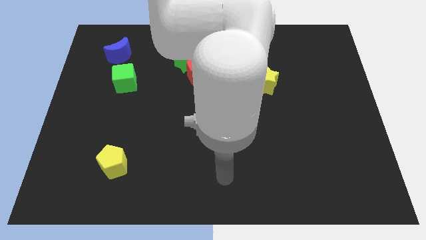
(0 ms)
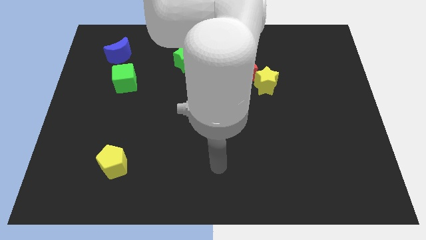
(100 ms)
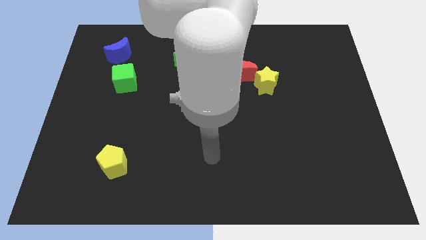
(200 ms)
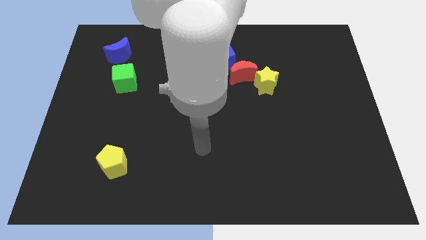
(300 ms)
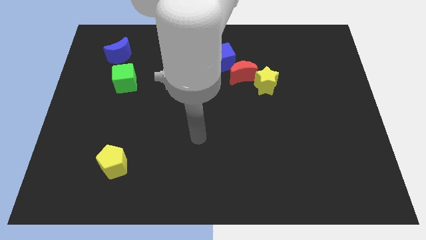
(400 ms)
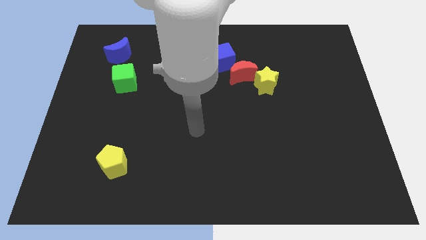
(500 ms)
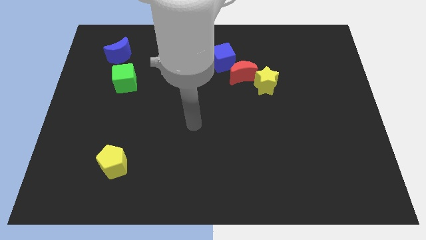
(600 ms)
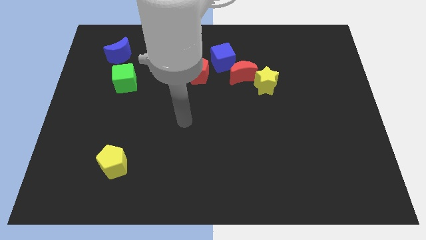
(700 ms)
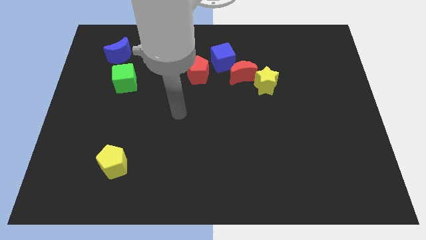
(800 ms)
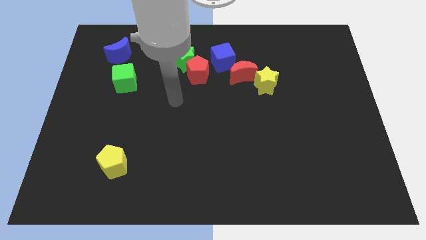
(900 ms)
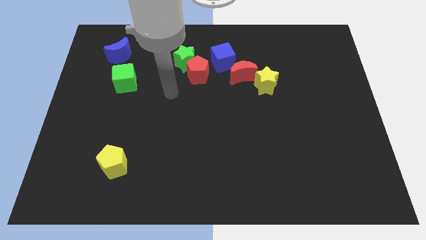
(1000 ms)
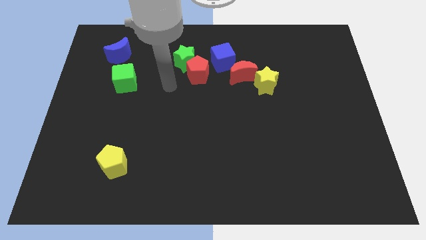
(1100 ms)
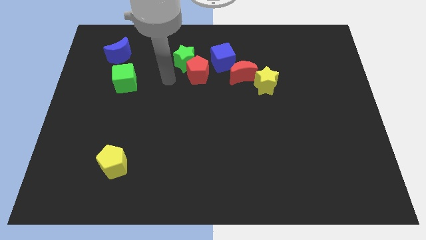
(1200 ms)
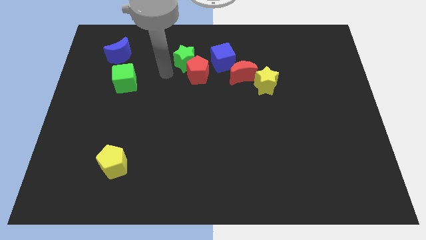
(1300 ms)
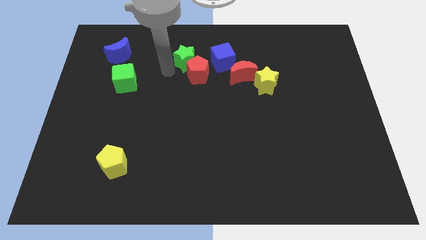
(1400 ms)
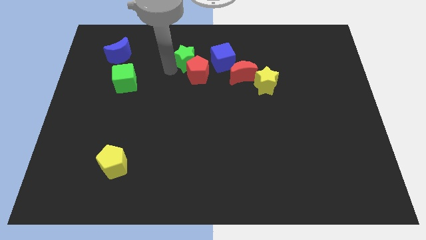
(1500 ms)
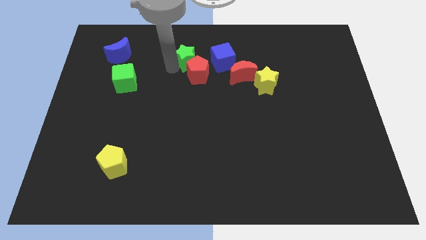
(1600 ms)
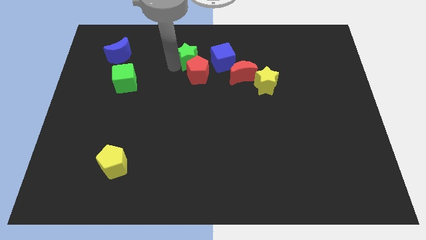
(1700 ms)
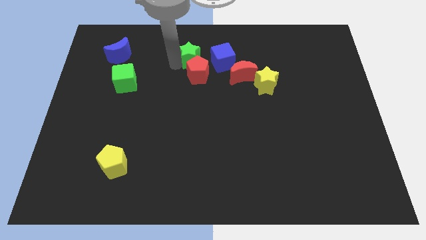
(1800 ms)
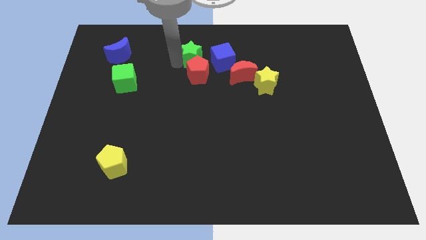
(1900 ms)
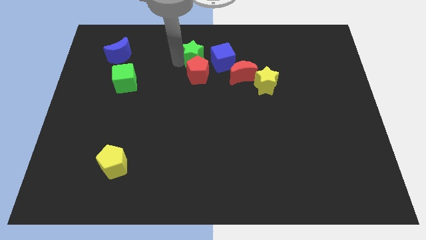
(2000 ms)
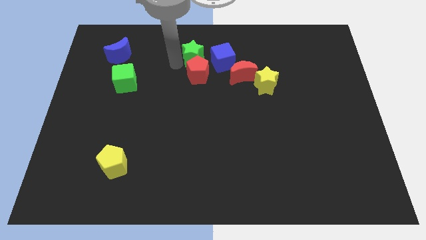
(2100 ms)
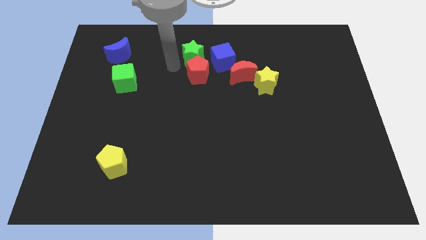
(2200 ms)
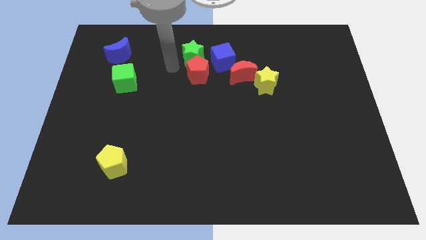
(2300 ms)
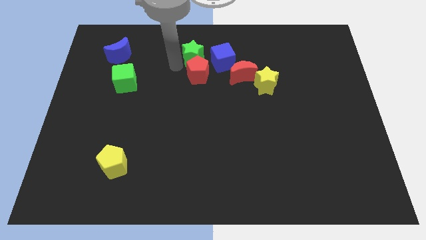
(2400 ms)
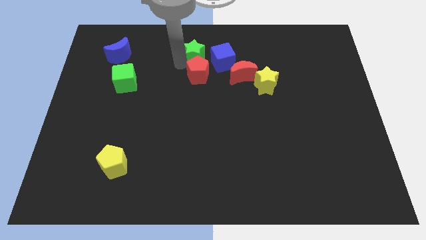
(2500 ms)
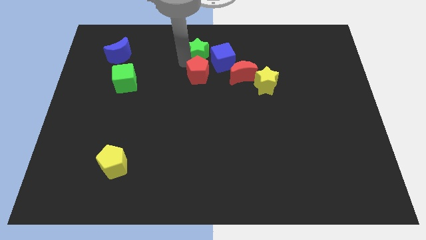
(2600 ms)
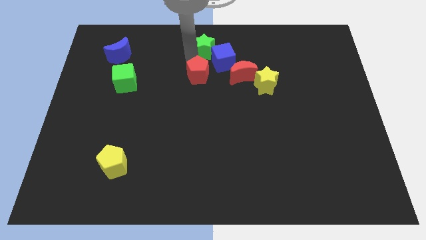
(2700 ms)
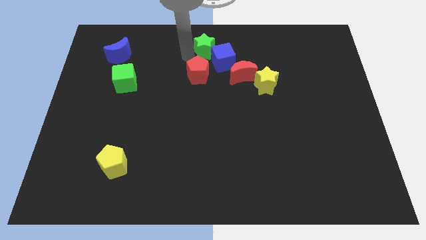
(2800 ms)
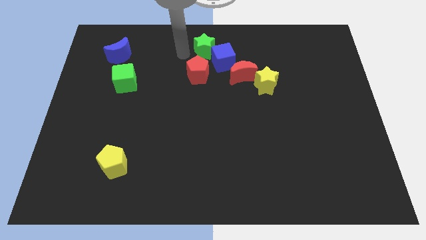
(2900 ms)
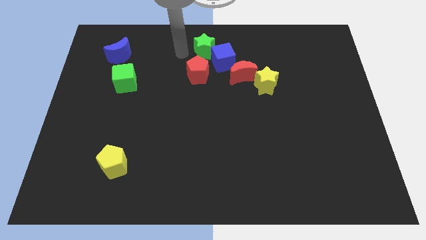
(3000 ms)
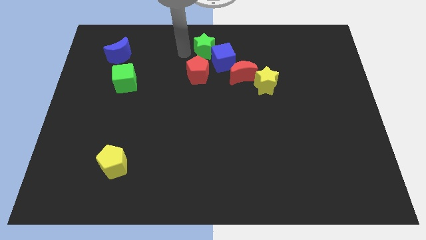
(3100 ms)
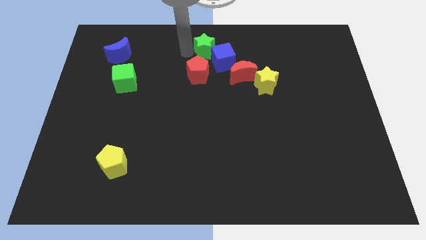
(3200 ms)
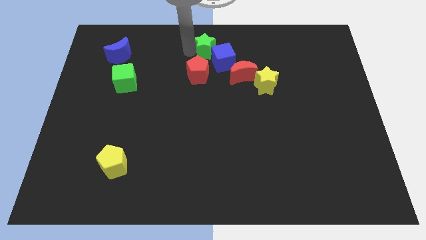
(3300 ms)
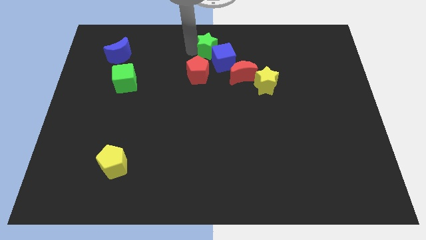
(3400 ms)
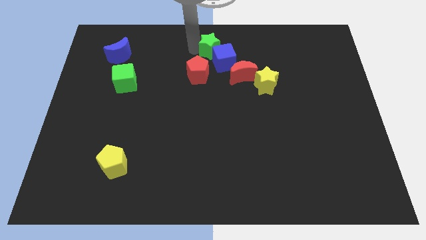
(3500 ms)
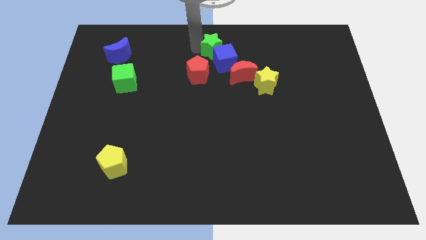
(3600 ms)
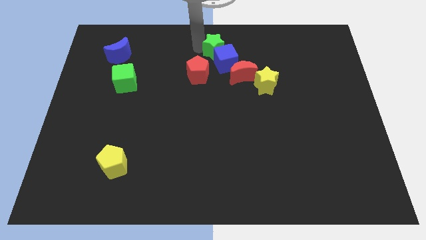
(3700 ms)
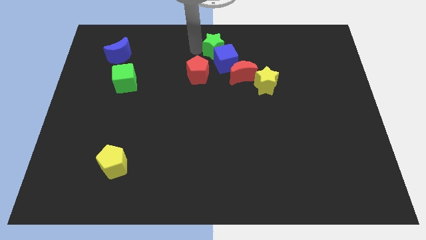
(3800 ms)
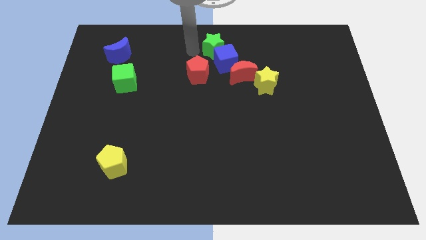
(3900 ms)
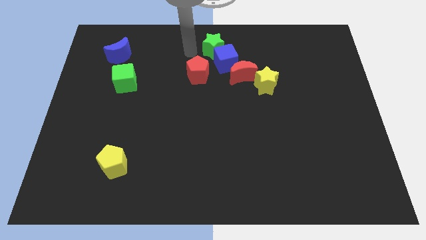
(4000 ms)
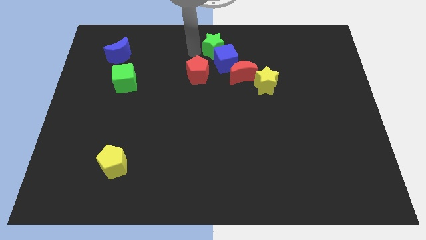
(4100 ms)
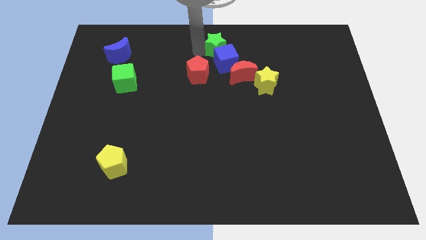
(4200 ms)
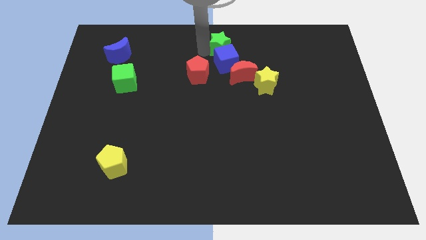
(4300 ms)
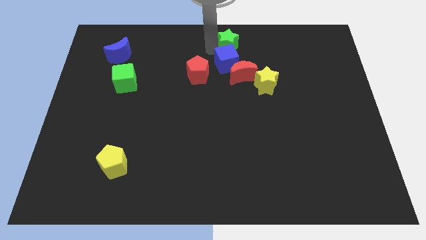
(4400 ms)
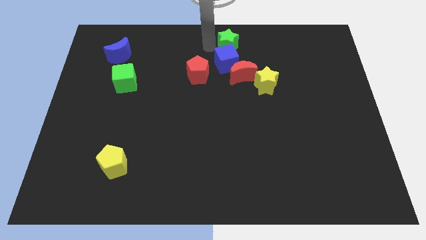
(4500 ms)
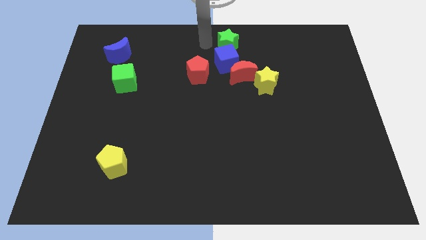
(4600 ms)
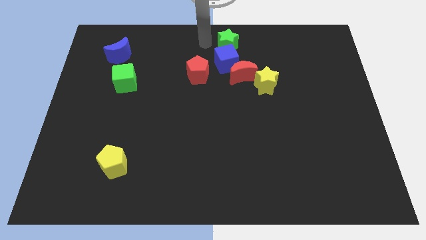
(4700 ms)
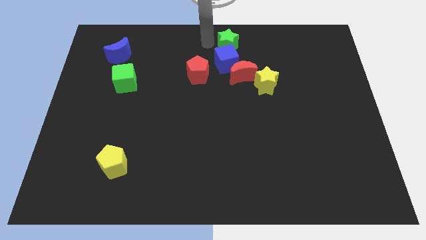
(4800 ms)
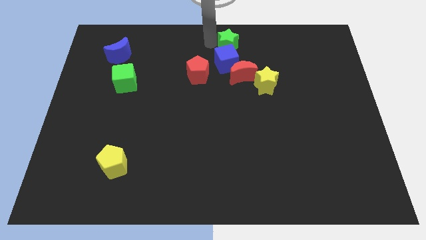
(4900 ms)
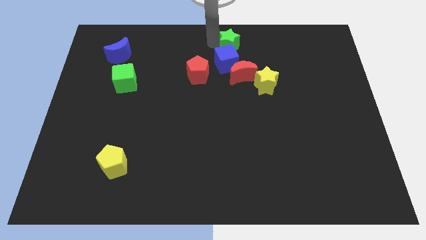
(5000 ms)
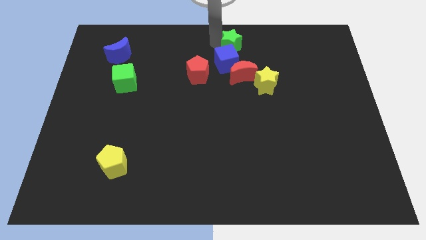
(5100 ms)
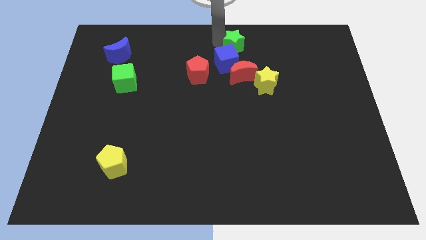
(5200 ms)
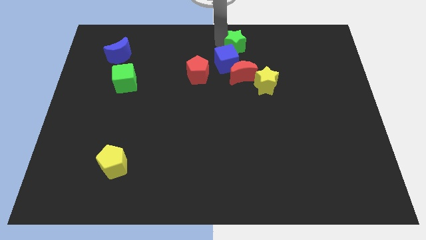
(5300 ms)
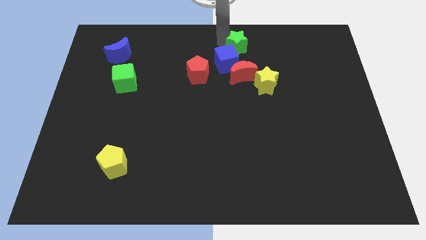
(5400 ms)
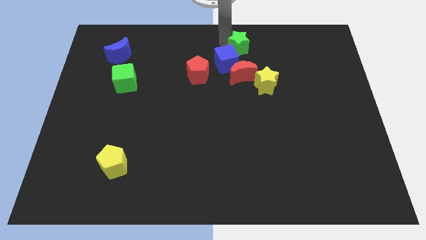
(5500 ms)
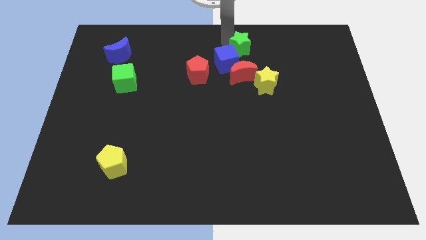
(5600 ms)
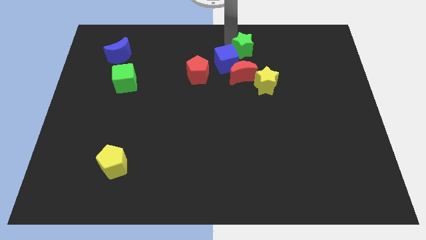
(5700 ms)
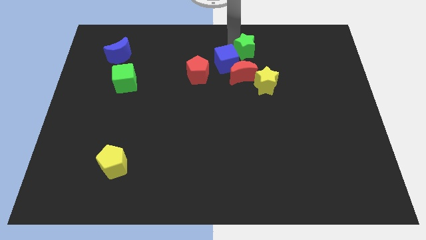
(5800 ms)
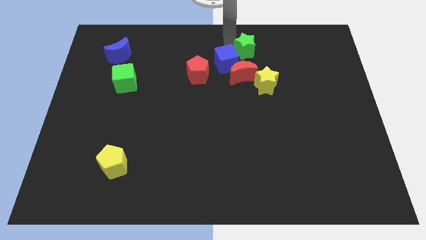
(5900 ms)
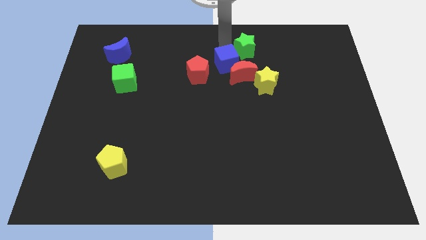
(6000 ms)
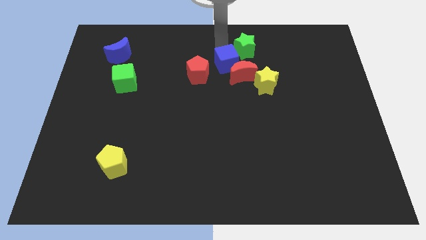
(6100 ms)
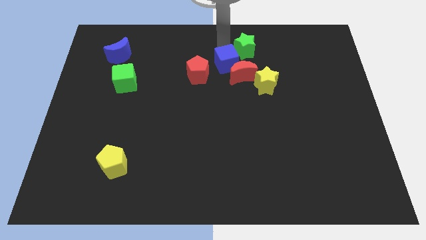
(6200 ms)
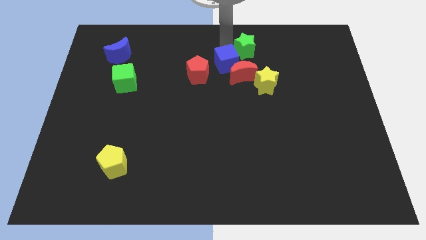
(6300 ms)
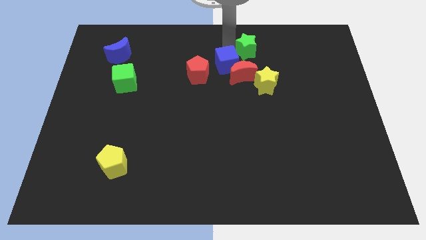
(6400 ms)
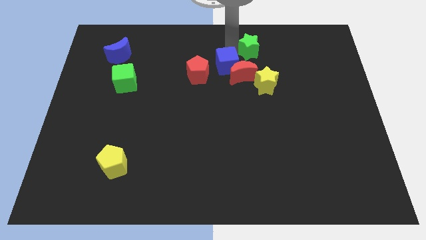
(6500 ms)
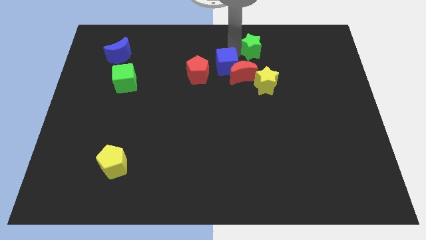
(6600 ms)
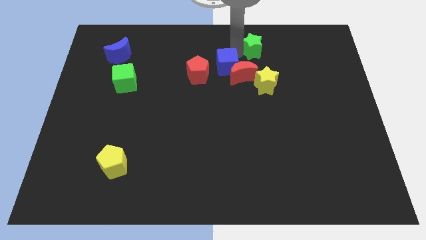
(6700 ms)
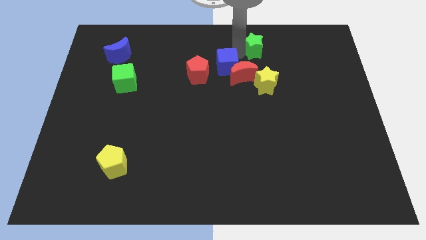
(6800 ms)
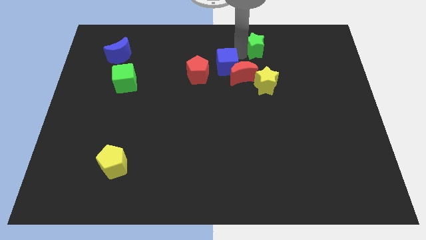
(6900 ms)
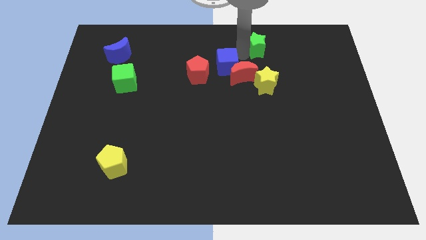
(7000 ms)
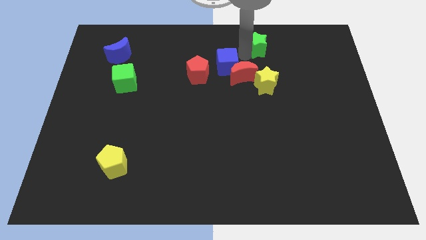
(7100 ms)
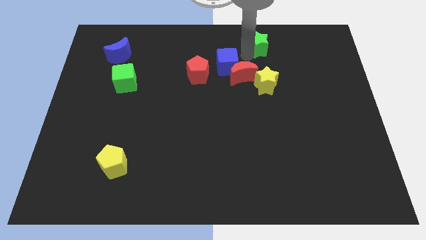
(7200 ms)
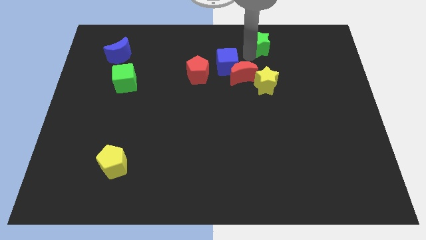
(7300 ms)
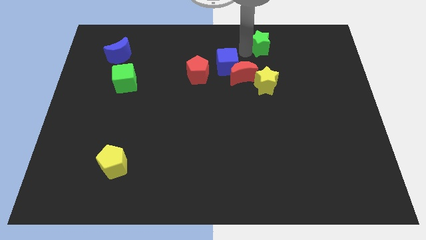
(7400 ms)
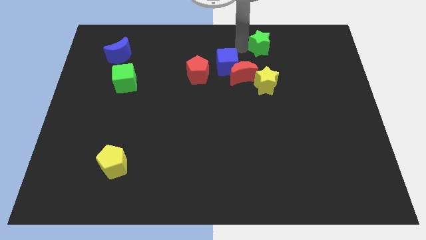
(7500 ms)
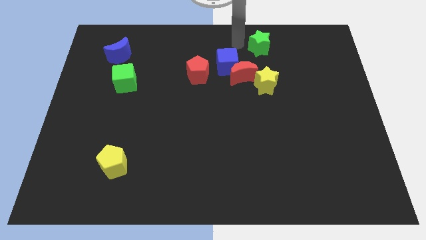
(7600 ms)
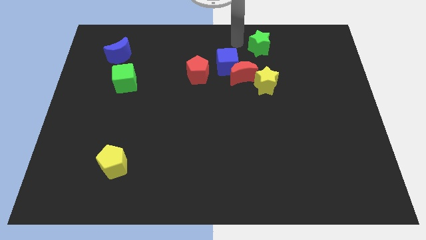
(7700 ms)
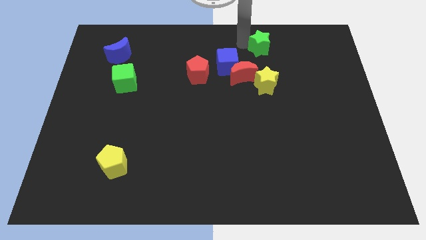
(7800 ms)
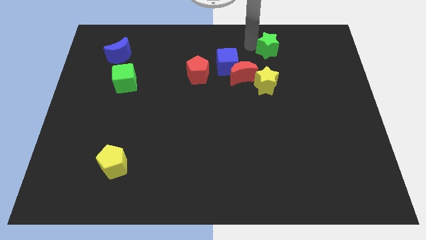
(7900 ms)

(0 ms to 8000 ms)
move the green star to the right

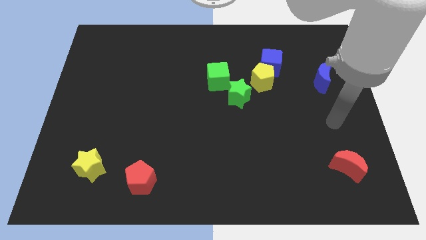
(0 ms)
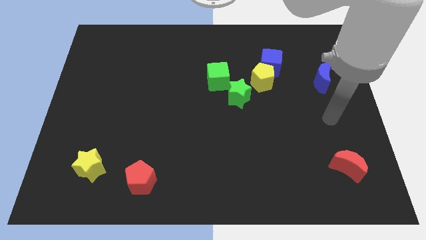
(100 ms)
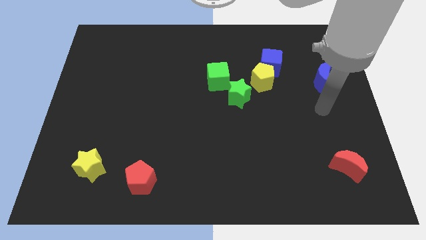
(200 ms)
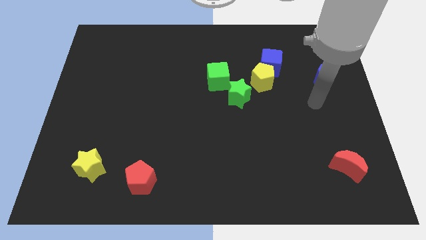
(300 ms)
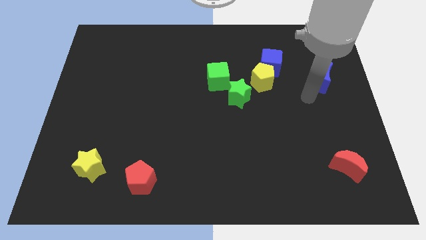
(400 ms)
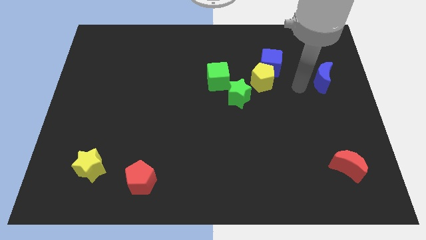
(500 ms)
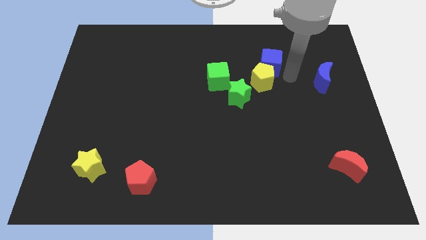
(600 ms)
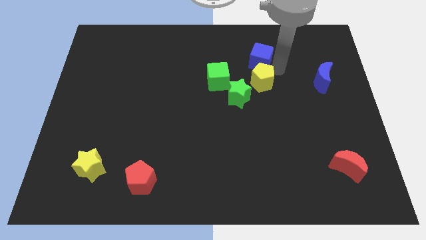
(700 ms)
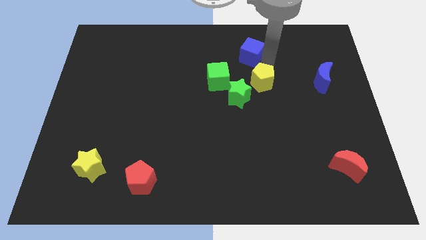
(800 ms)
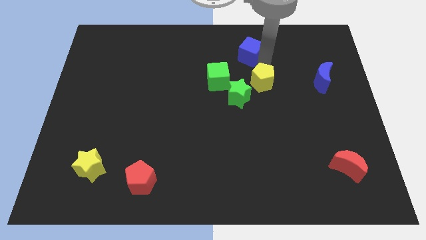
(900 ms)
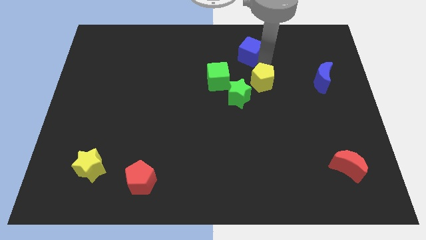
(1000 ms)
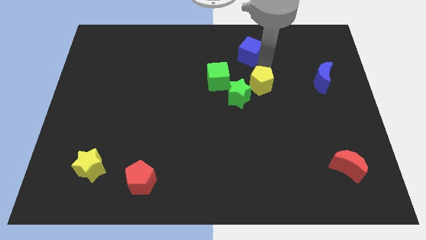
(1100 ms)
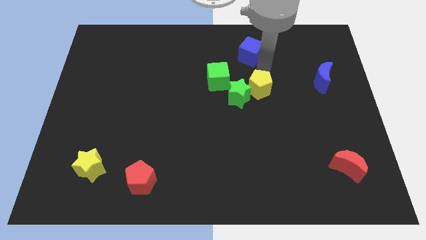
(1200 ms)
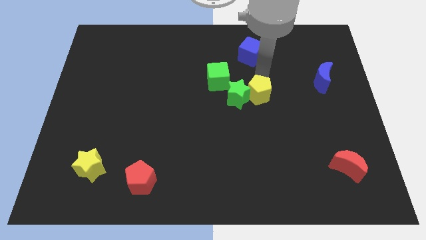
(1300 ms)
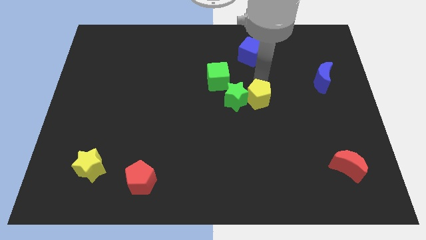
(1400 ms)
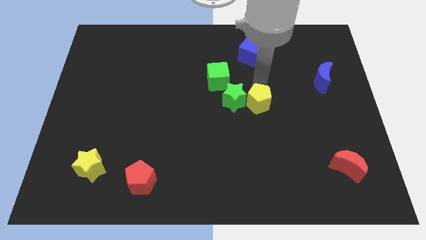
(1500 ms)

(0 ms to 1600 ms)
slightly move the yellow pentagon downwards
